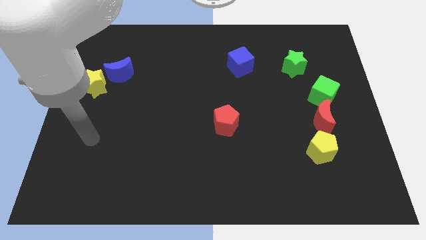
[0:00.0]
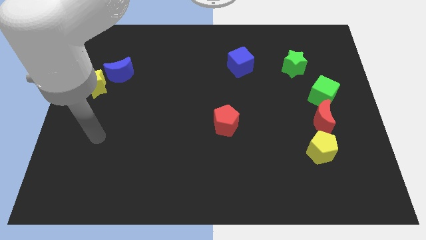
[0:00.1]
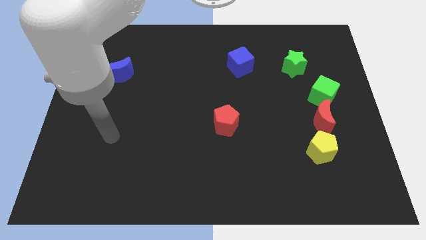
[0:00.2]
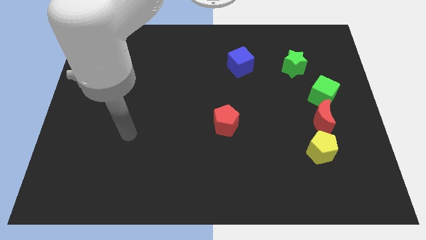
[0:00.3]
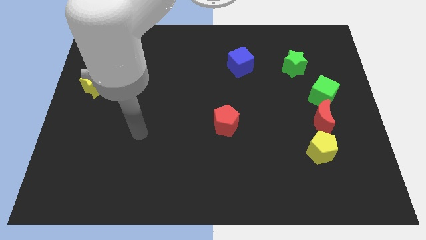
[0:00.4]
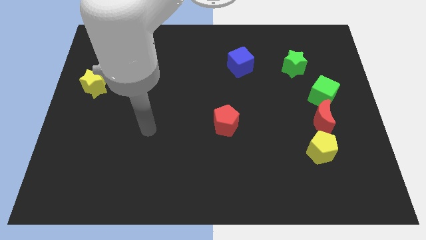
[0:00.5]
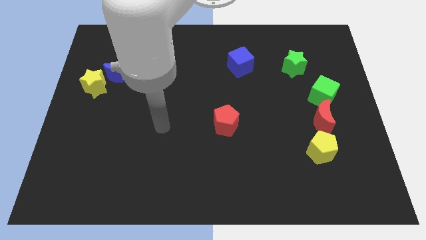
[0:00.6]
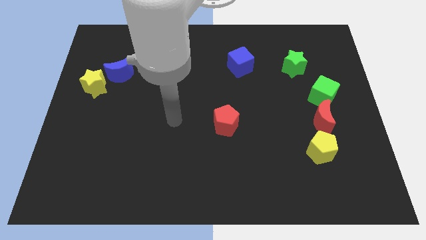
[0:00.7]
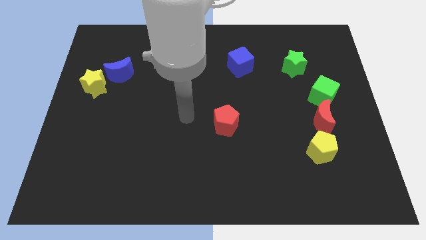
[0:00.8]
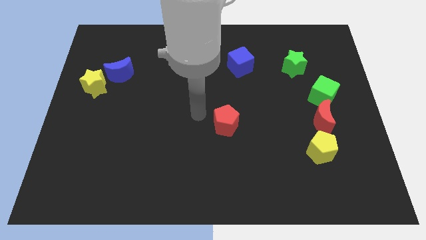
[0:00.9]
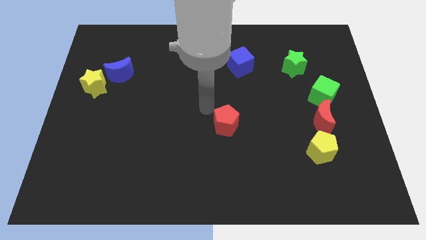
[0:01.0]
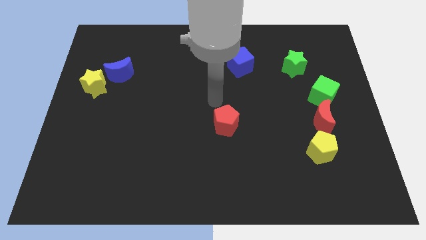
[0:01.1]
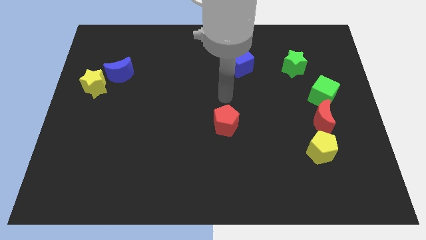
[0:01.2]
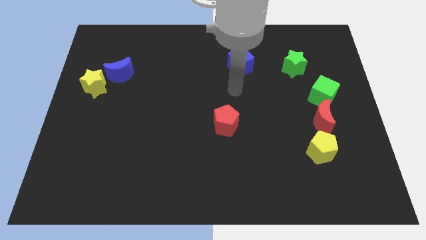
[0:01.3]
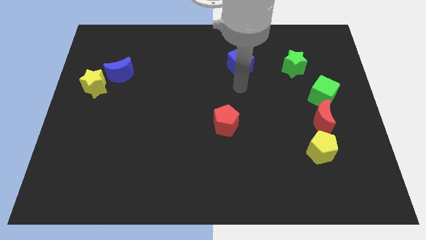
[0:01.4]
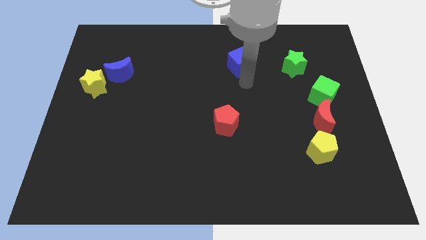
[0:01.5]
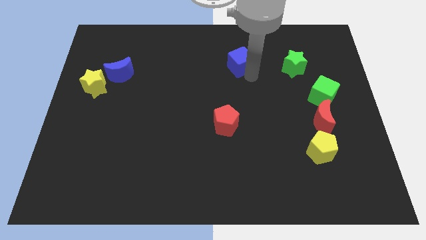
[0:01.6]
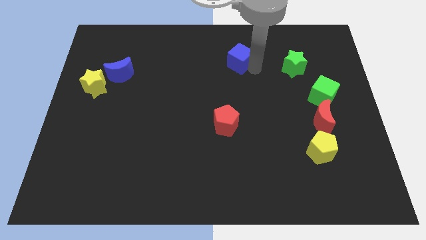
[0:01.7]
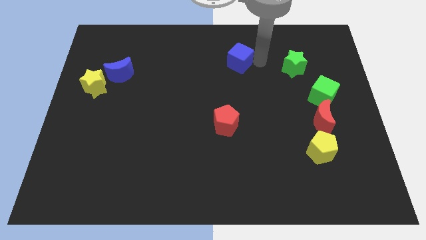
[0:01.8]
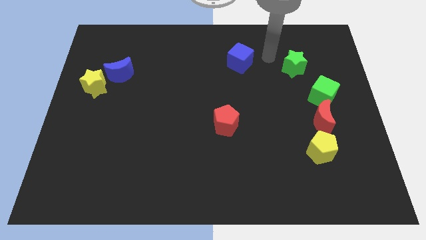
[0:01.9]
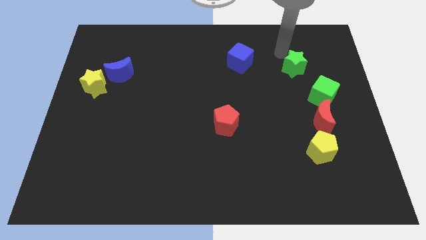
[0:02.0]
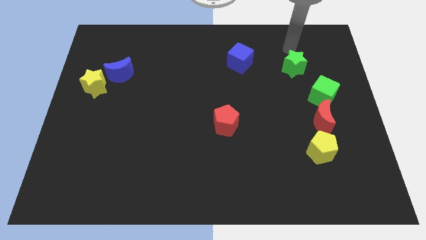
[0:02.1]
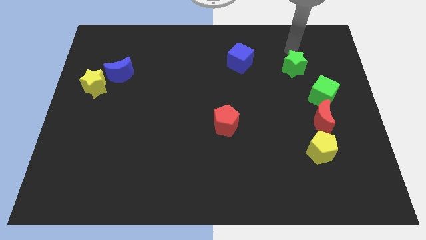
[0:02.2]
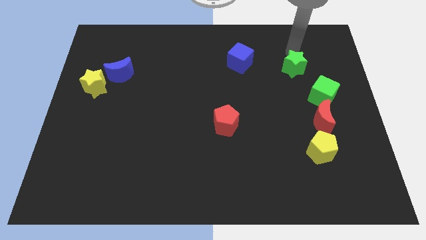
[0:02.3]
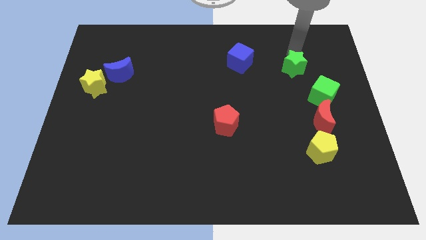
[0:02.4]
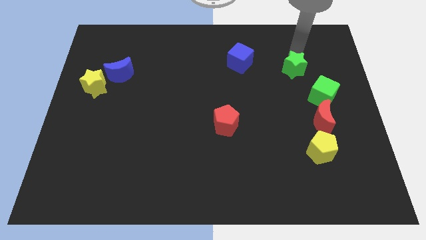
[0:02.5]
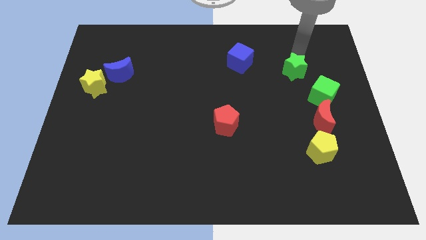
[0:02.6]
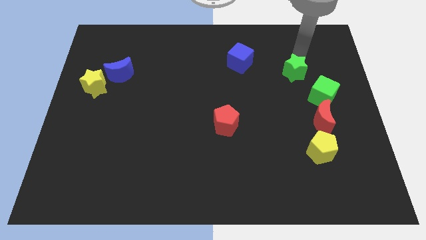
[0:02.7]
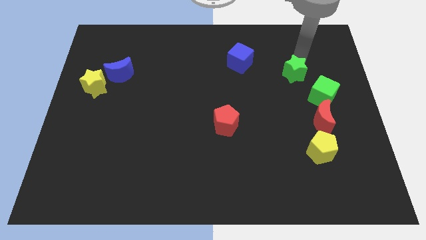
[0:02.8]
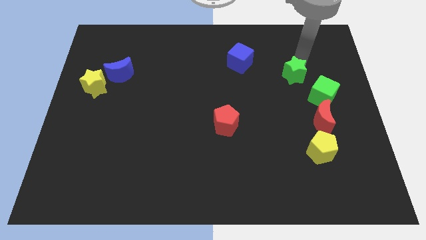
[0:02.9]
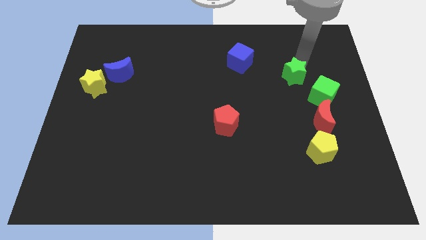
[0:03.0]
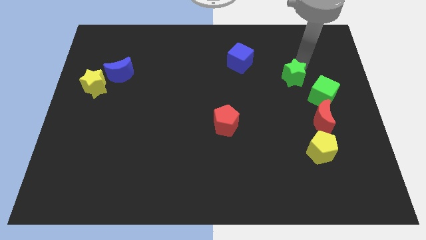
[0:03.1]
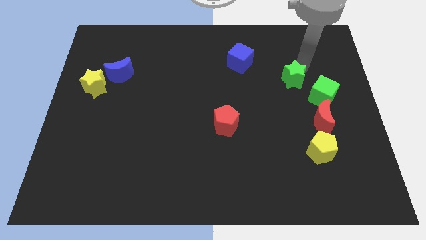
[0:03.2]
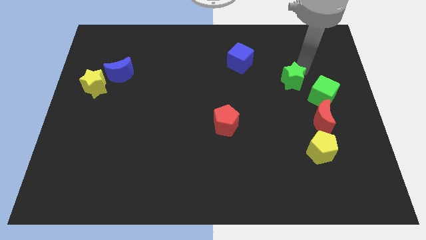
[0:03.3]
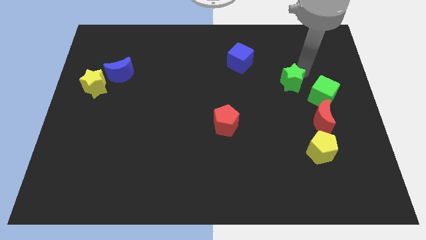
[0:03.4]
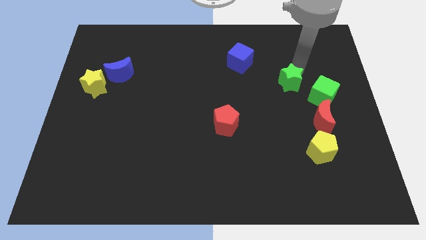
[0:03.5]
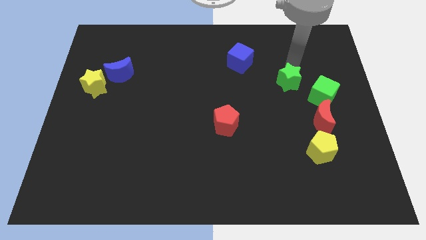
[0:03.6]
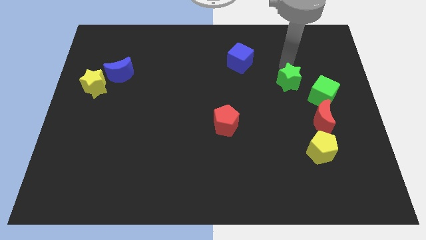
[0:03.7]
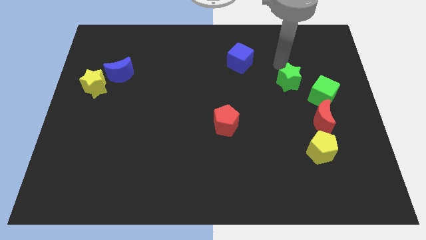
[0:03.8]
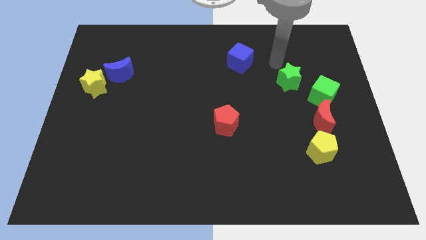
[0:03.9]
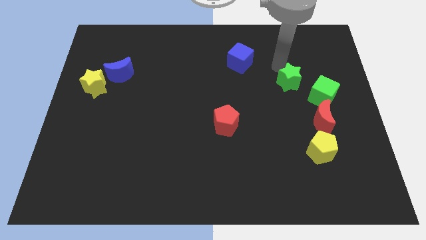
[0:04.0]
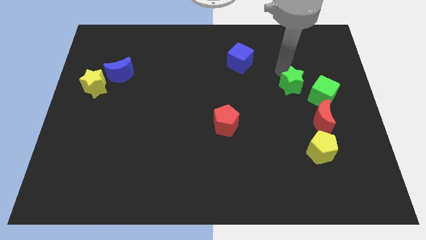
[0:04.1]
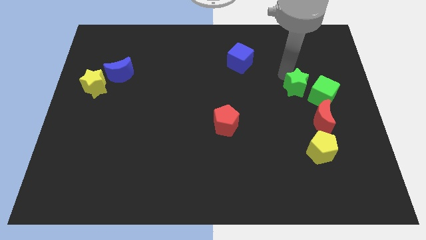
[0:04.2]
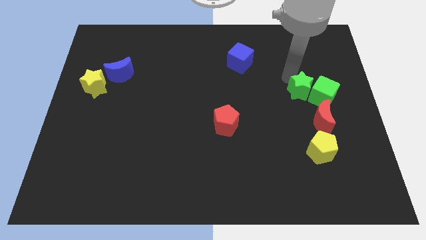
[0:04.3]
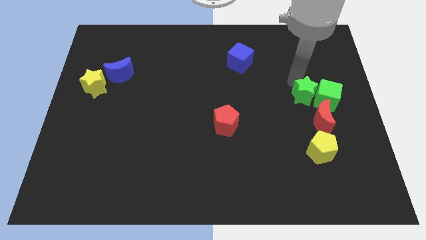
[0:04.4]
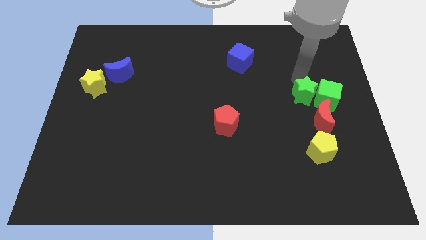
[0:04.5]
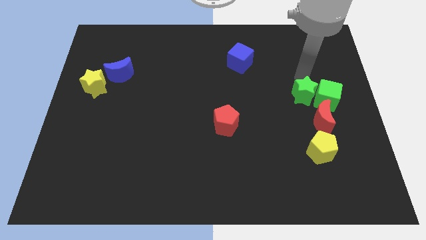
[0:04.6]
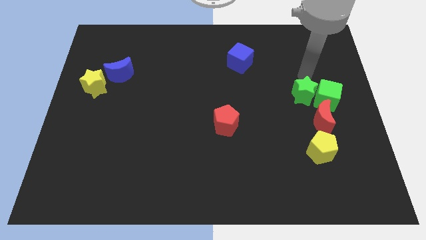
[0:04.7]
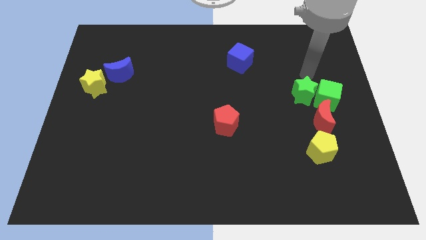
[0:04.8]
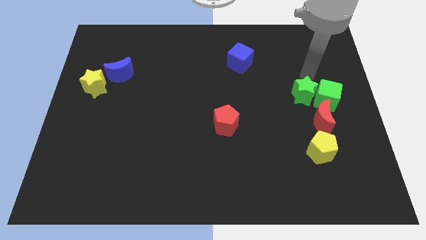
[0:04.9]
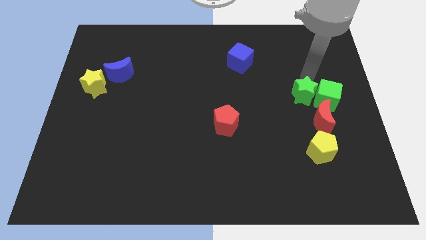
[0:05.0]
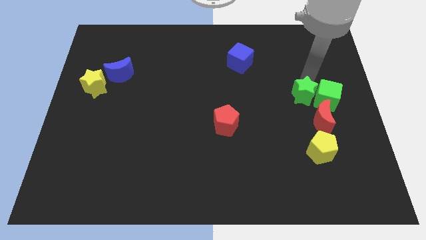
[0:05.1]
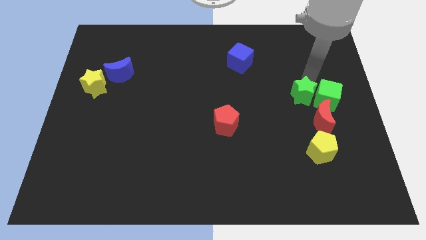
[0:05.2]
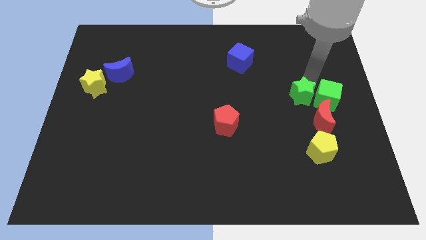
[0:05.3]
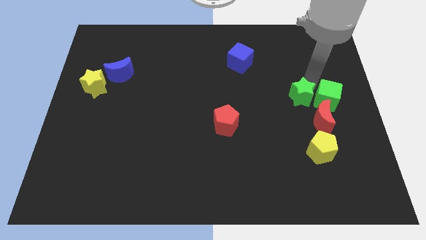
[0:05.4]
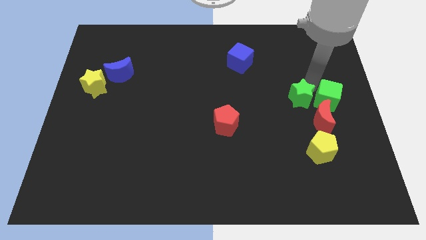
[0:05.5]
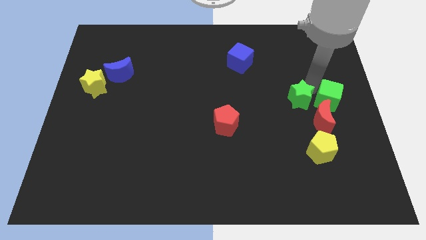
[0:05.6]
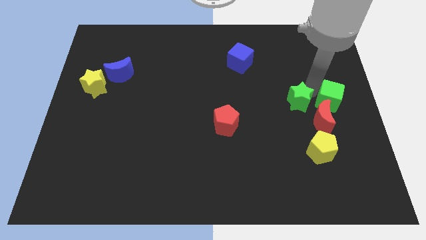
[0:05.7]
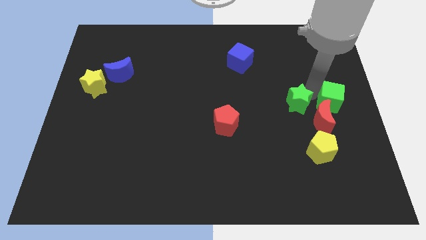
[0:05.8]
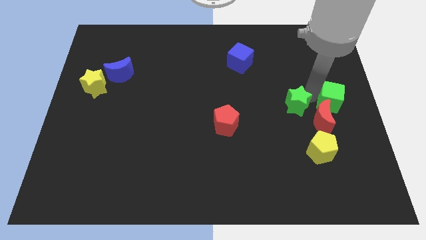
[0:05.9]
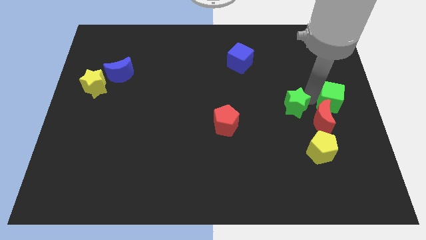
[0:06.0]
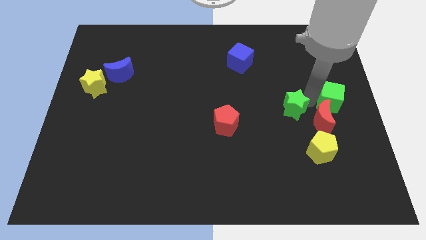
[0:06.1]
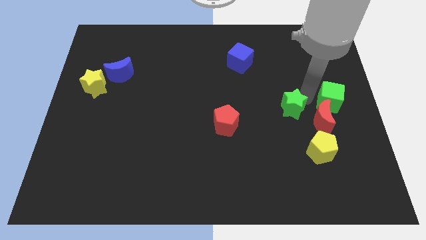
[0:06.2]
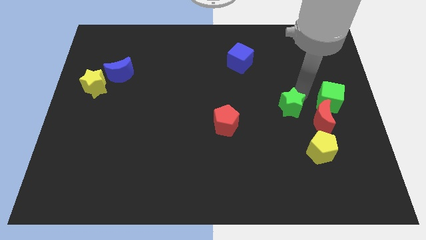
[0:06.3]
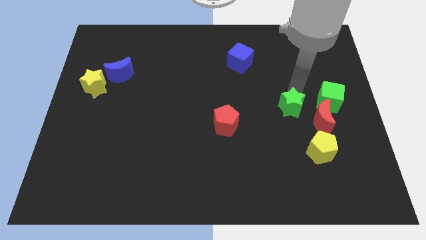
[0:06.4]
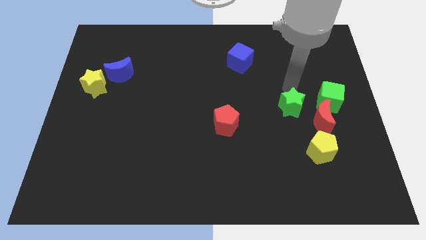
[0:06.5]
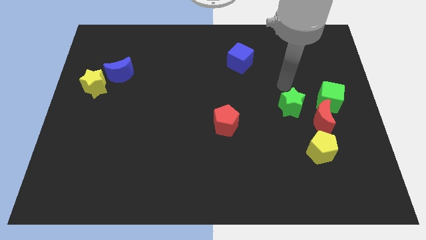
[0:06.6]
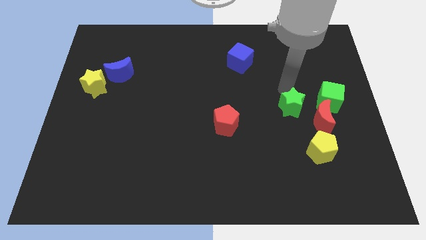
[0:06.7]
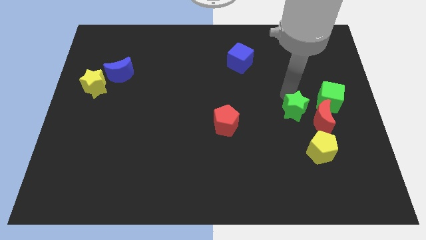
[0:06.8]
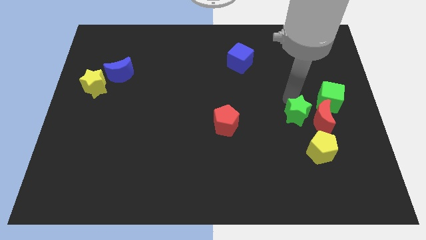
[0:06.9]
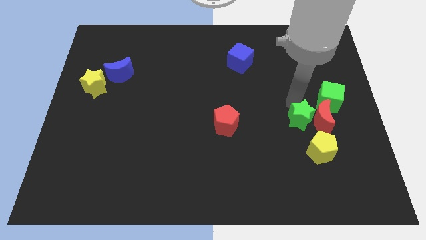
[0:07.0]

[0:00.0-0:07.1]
slide the green star diagonally down and to the left of the red moon
